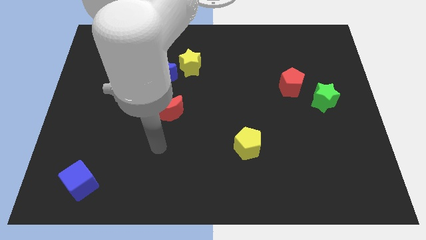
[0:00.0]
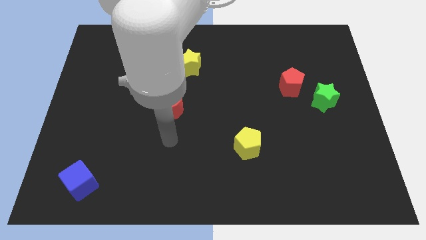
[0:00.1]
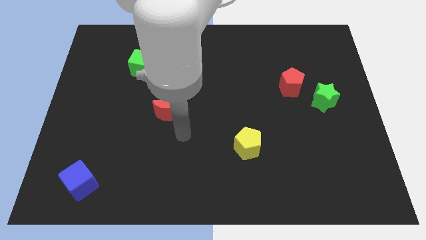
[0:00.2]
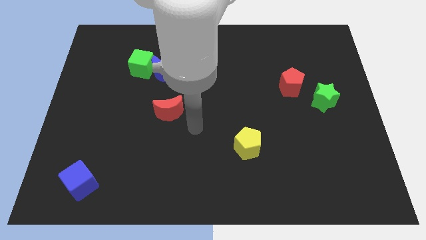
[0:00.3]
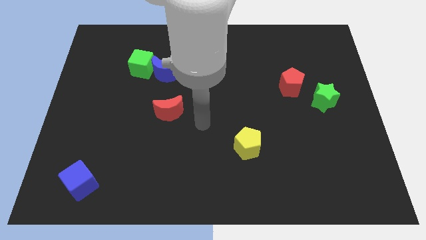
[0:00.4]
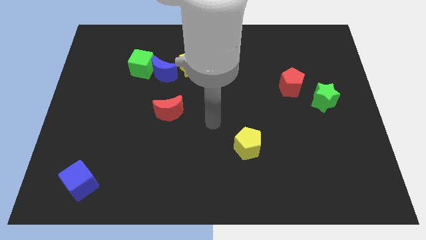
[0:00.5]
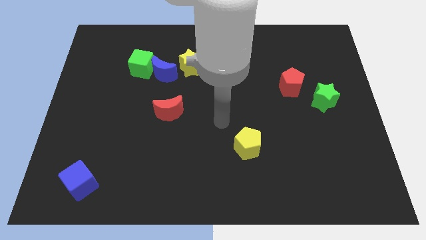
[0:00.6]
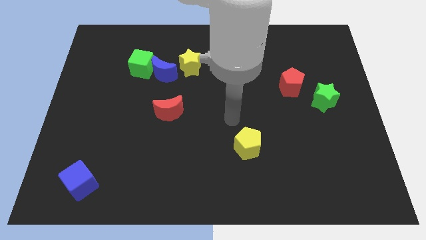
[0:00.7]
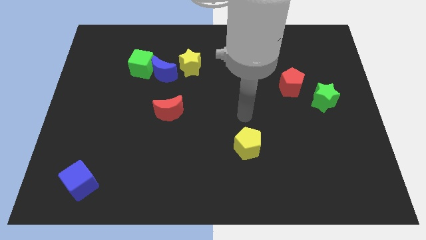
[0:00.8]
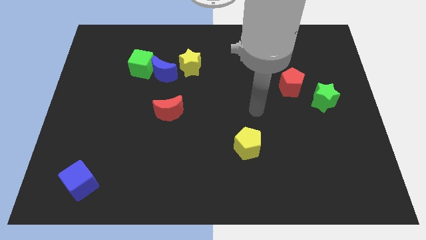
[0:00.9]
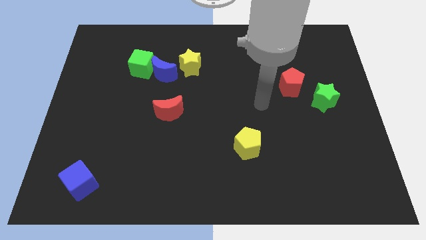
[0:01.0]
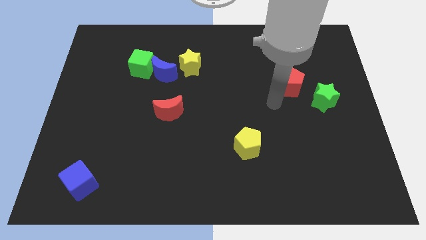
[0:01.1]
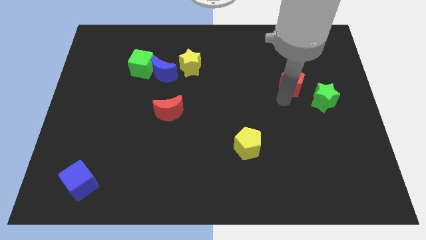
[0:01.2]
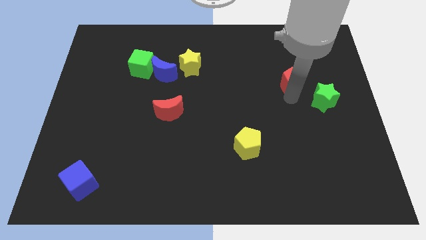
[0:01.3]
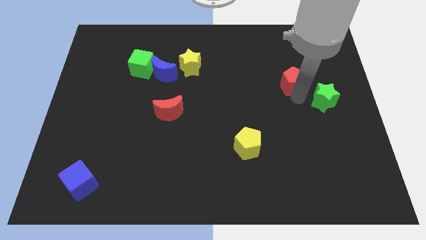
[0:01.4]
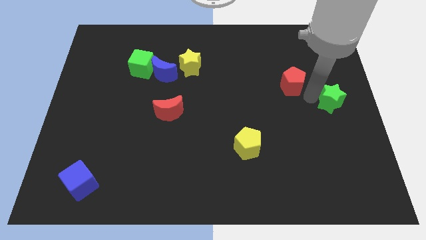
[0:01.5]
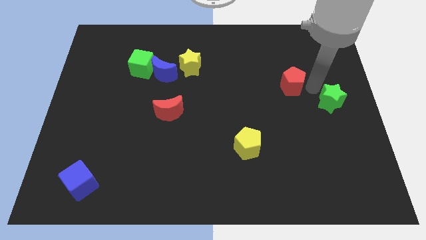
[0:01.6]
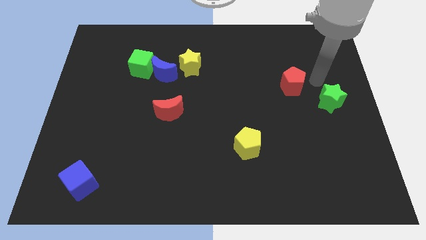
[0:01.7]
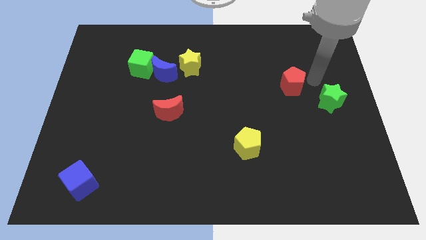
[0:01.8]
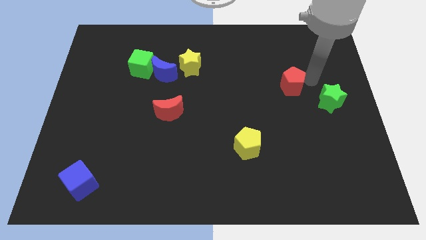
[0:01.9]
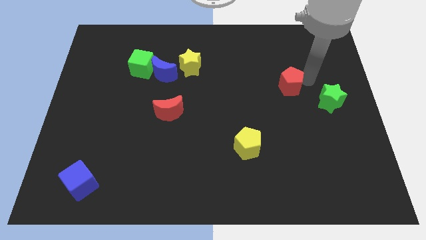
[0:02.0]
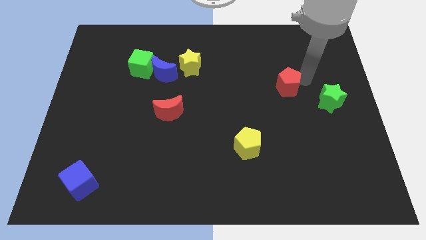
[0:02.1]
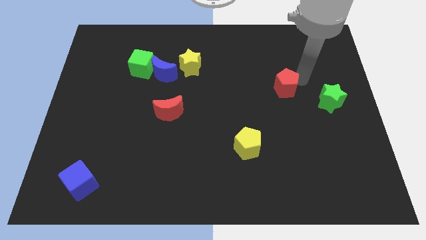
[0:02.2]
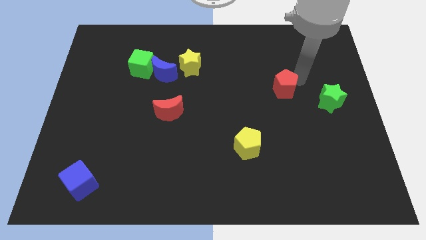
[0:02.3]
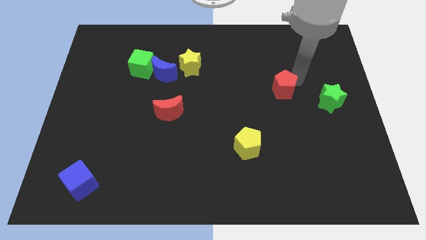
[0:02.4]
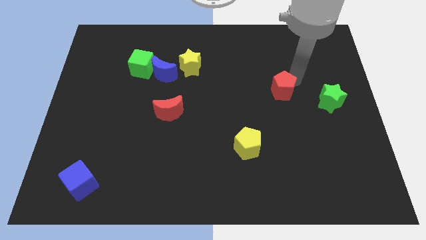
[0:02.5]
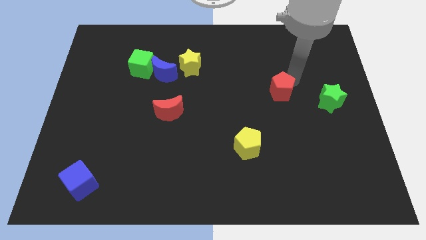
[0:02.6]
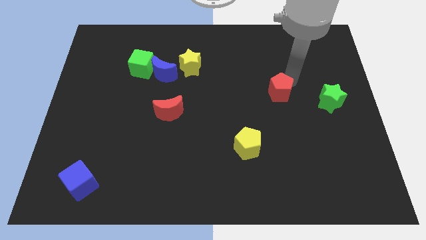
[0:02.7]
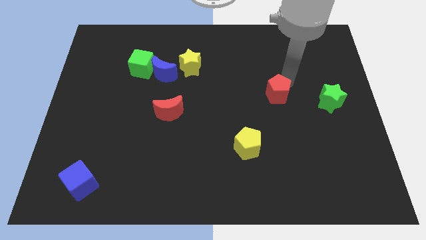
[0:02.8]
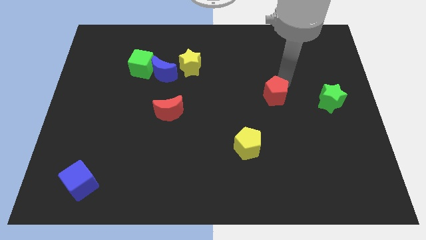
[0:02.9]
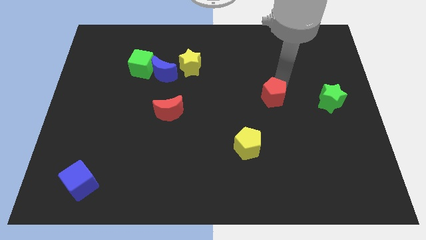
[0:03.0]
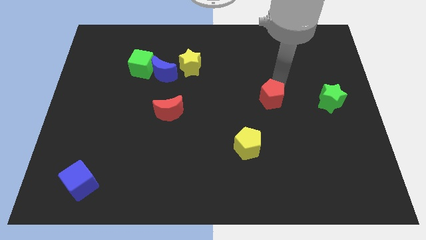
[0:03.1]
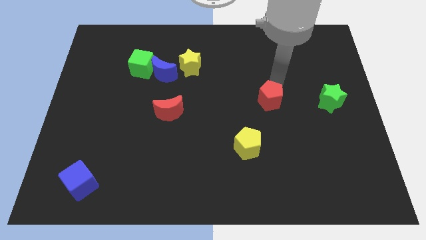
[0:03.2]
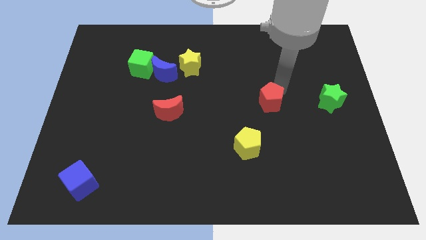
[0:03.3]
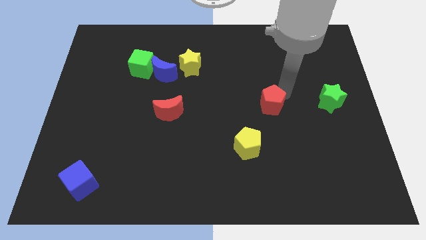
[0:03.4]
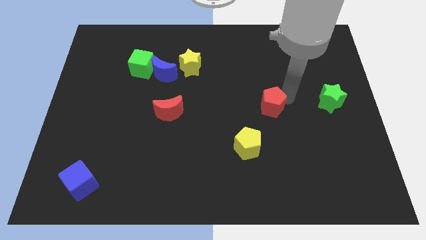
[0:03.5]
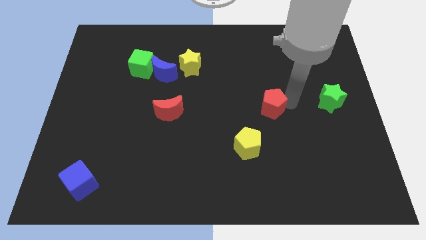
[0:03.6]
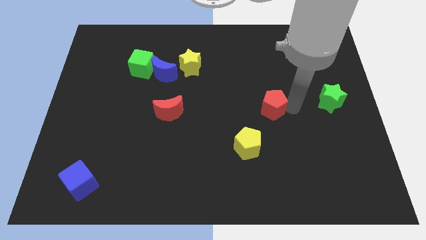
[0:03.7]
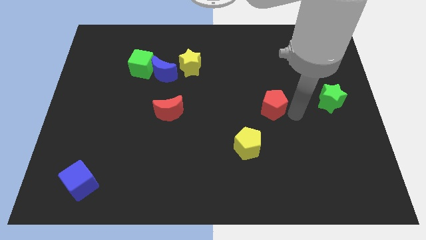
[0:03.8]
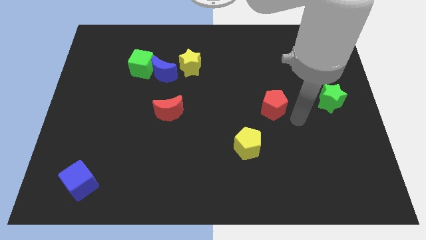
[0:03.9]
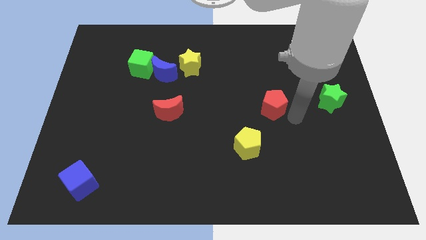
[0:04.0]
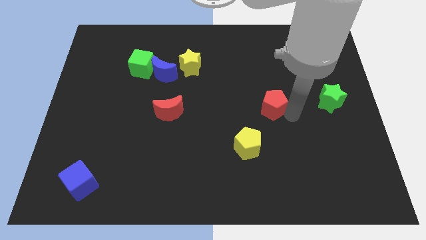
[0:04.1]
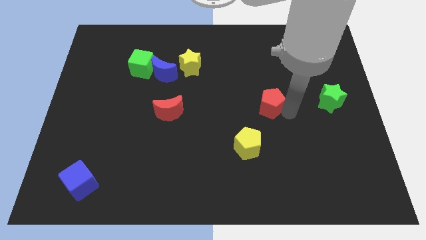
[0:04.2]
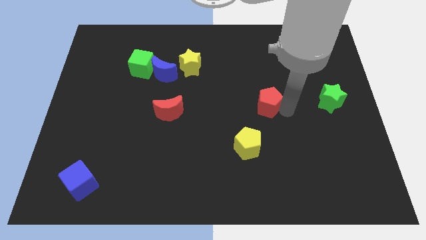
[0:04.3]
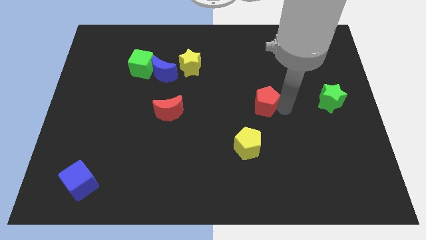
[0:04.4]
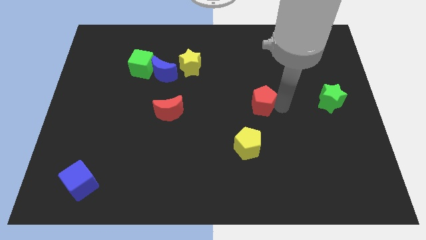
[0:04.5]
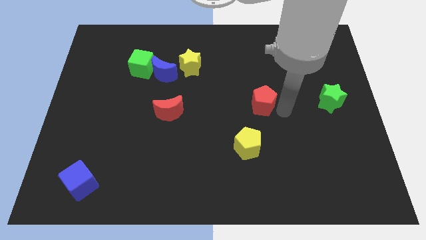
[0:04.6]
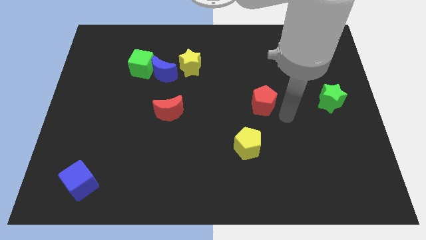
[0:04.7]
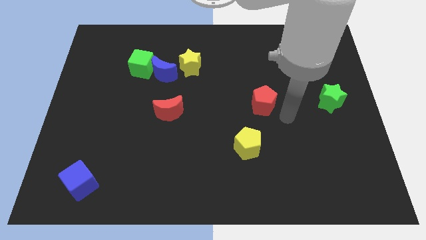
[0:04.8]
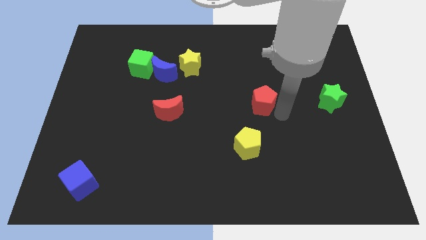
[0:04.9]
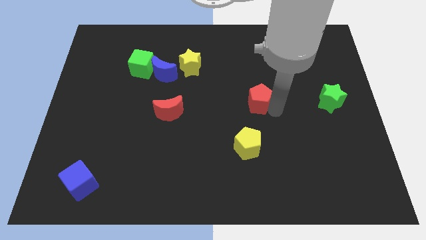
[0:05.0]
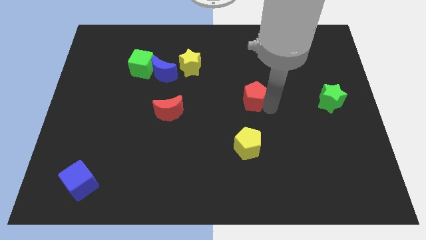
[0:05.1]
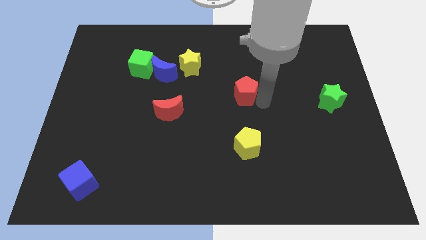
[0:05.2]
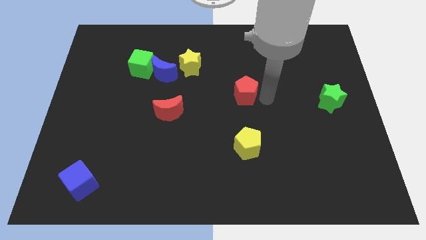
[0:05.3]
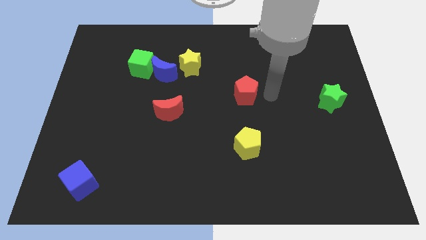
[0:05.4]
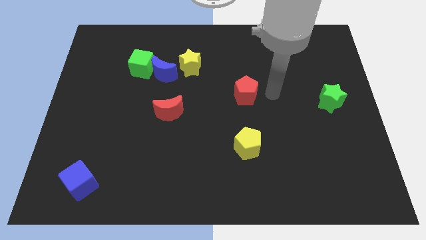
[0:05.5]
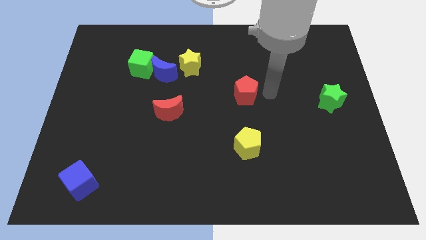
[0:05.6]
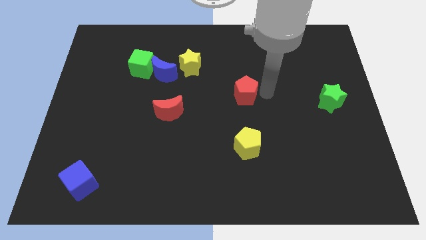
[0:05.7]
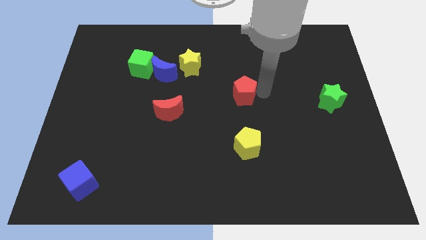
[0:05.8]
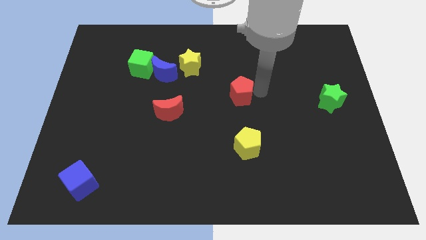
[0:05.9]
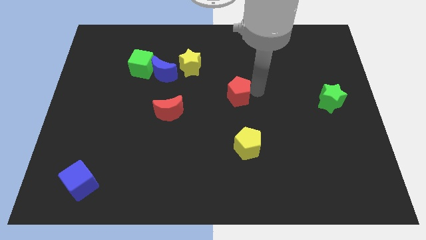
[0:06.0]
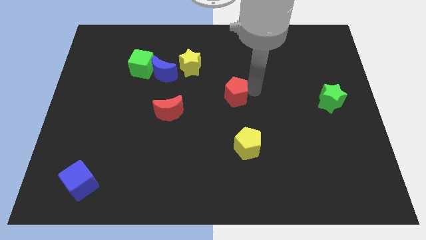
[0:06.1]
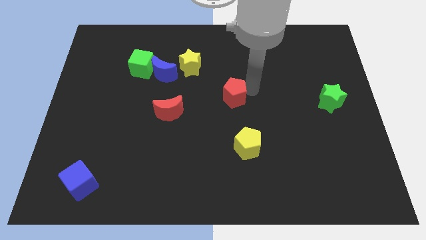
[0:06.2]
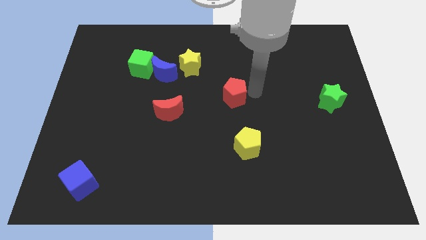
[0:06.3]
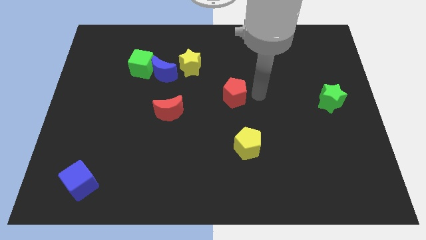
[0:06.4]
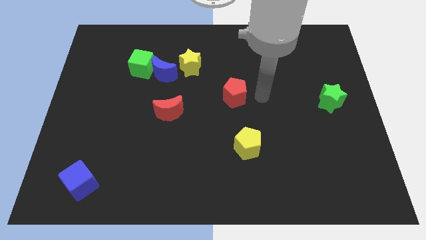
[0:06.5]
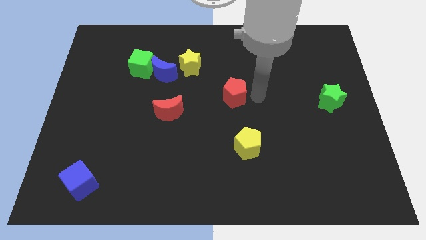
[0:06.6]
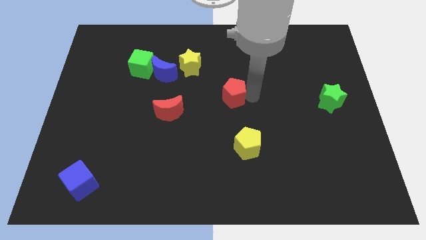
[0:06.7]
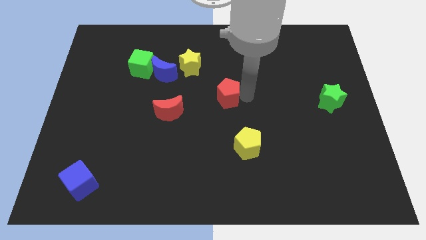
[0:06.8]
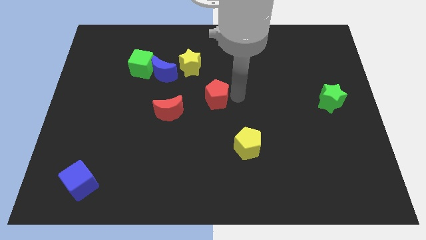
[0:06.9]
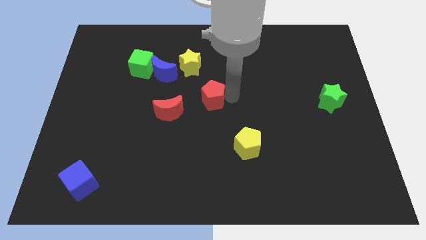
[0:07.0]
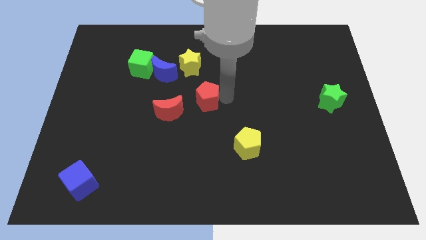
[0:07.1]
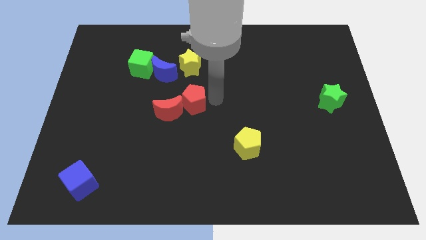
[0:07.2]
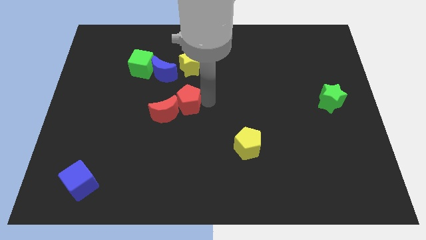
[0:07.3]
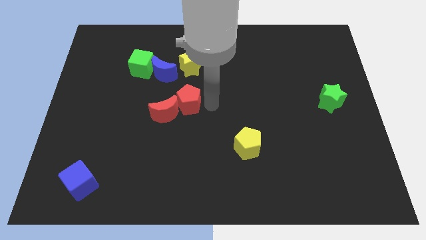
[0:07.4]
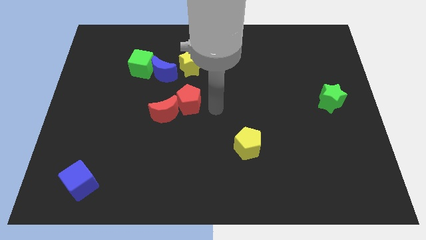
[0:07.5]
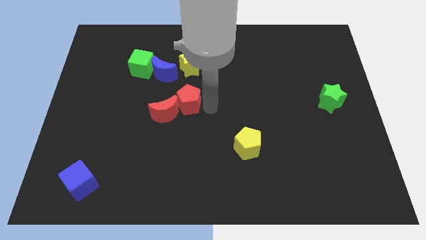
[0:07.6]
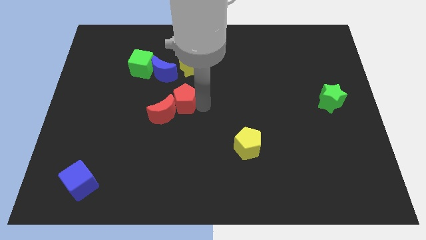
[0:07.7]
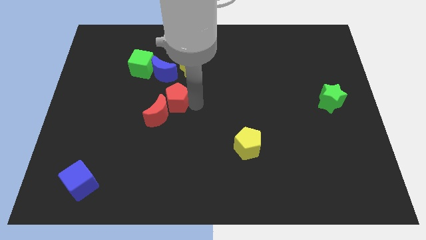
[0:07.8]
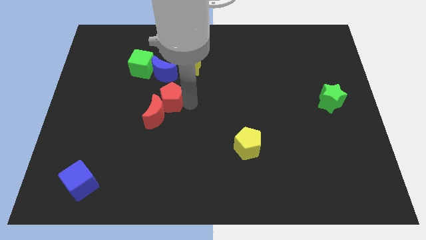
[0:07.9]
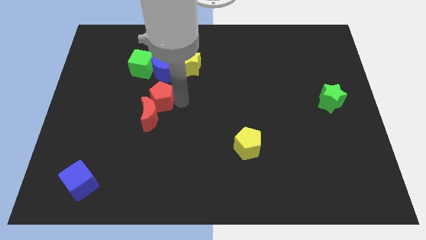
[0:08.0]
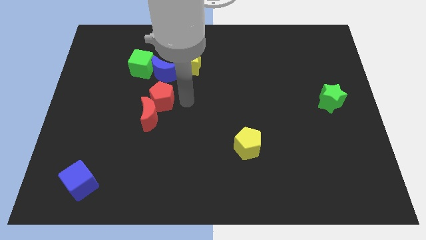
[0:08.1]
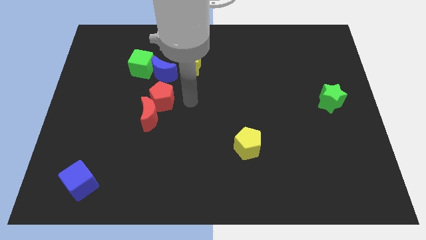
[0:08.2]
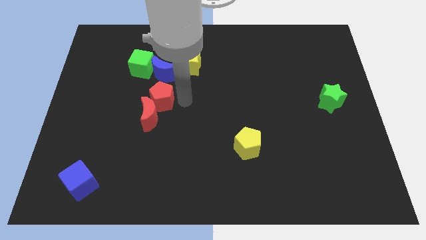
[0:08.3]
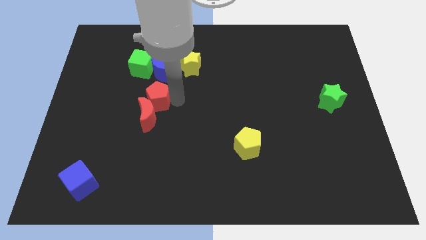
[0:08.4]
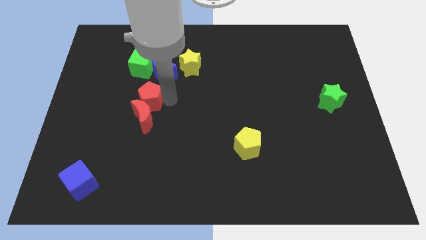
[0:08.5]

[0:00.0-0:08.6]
move the red pentagon to the bottom of the green cube
